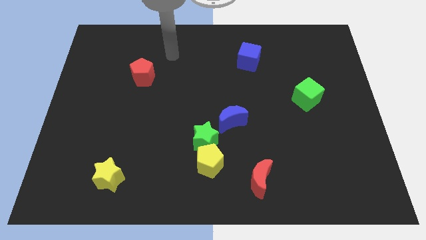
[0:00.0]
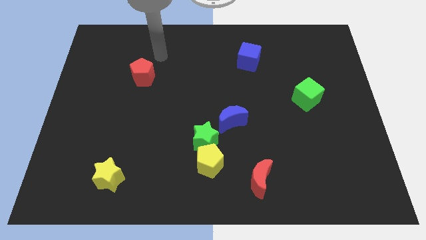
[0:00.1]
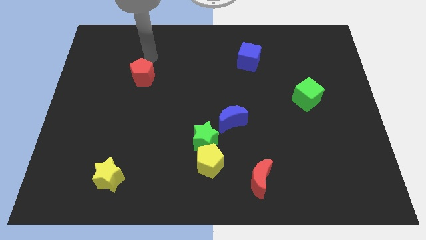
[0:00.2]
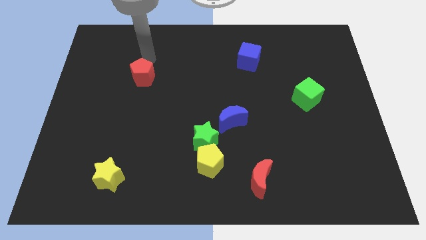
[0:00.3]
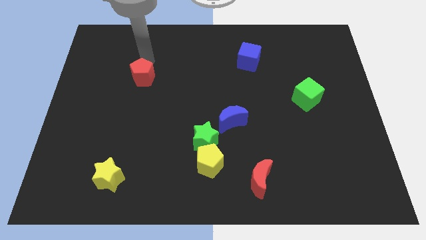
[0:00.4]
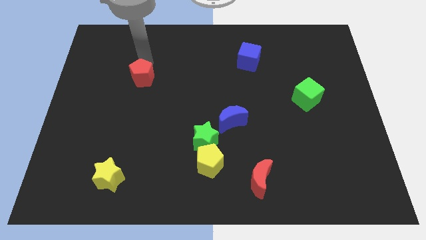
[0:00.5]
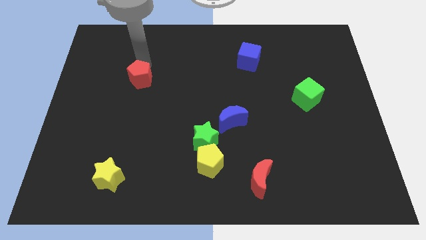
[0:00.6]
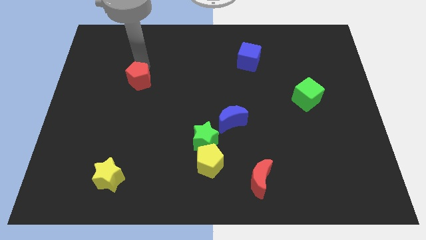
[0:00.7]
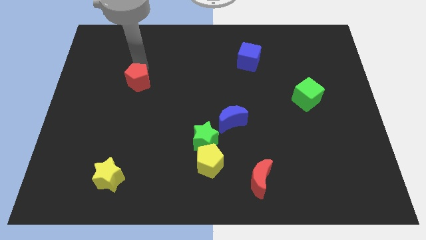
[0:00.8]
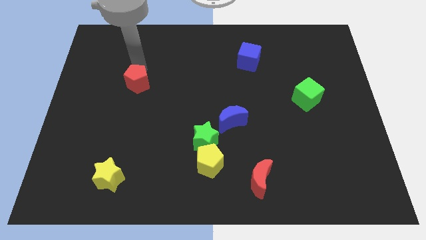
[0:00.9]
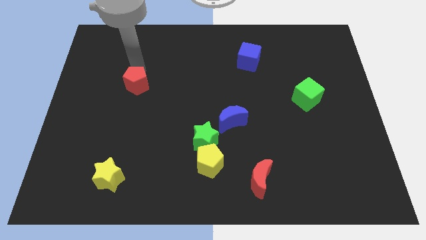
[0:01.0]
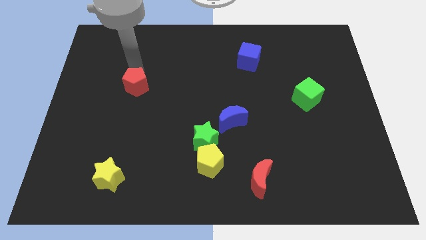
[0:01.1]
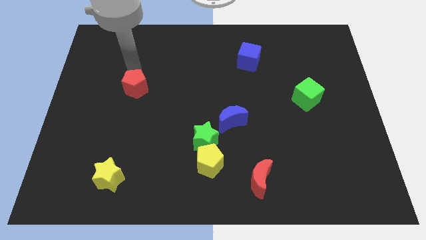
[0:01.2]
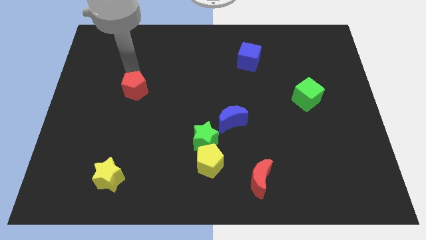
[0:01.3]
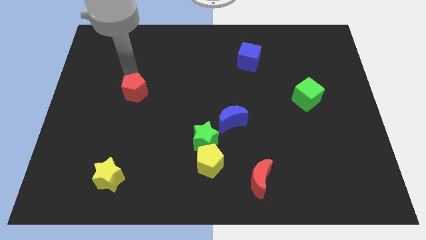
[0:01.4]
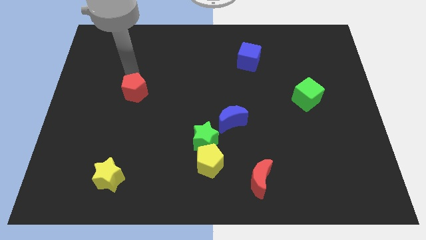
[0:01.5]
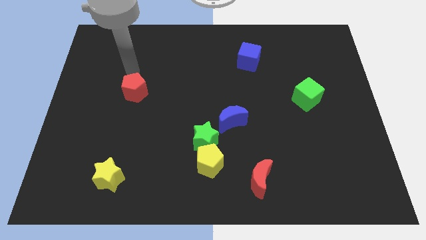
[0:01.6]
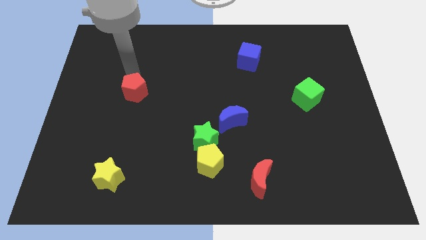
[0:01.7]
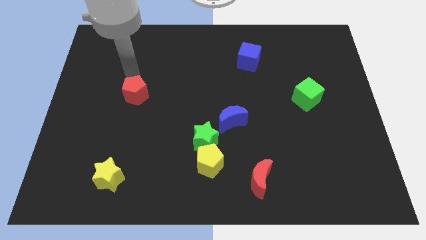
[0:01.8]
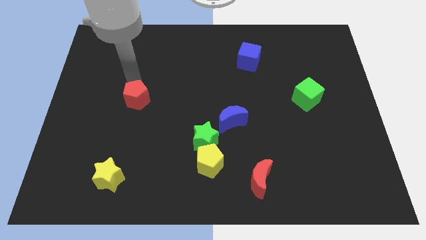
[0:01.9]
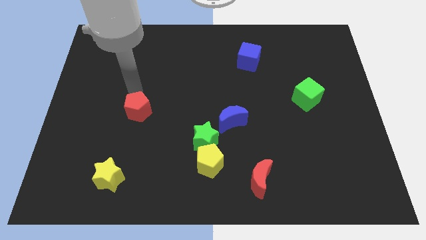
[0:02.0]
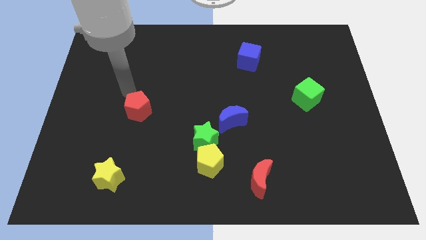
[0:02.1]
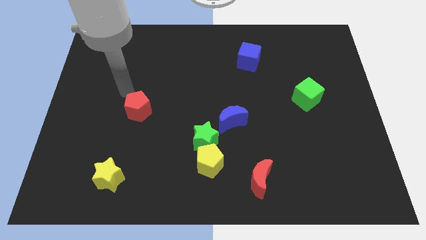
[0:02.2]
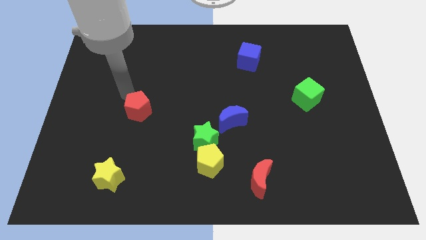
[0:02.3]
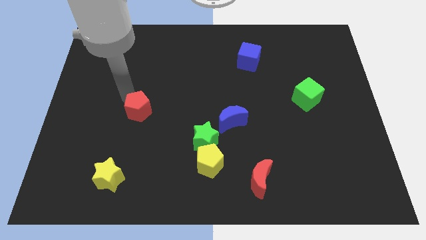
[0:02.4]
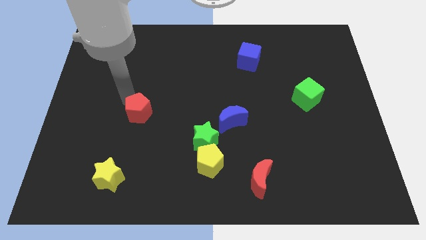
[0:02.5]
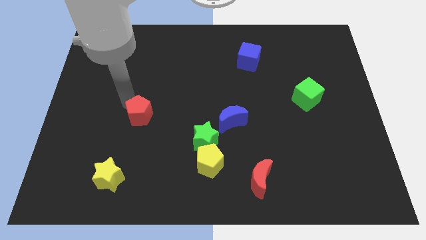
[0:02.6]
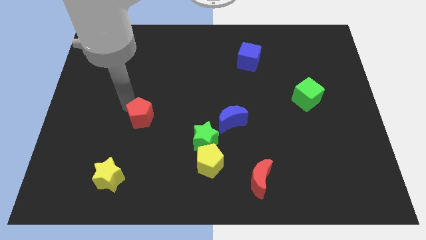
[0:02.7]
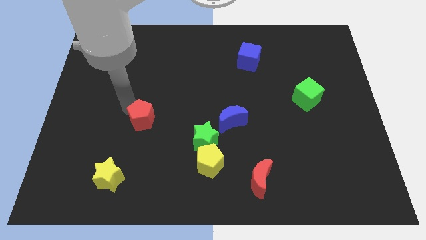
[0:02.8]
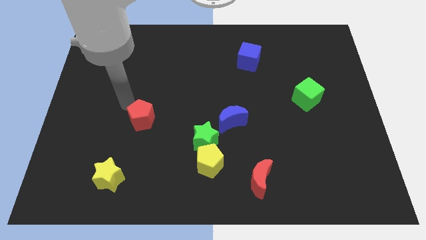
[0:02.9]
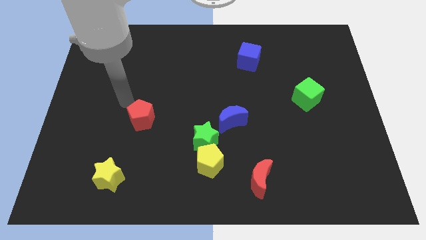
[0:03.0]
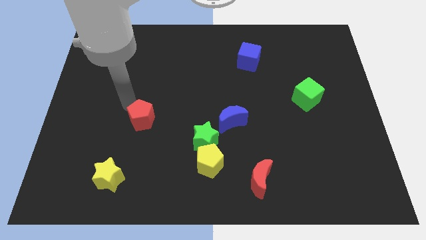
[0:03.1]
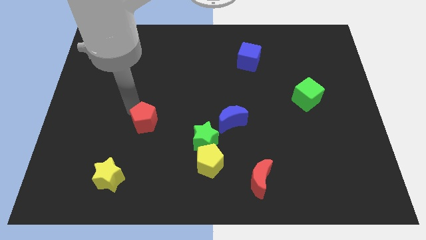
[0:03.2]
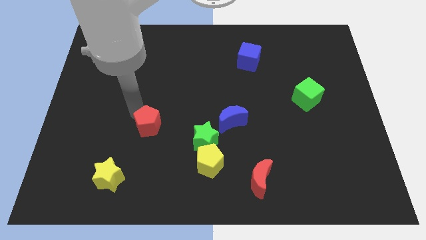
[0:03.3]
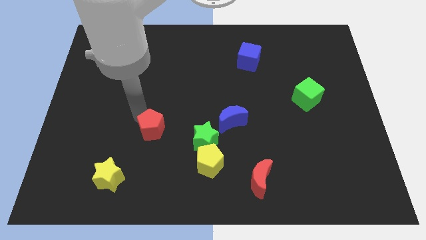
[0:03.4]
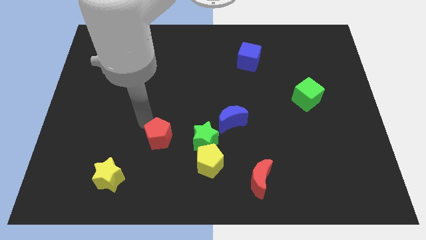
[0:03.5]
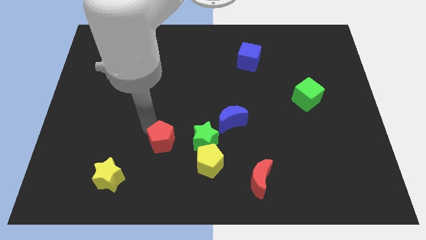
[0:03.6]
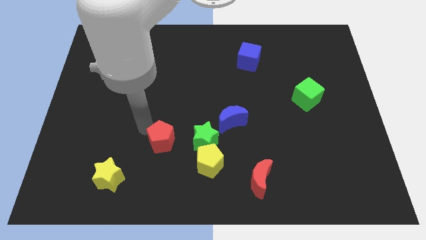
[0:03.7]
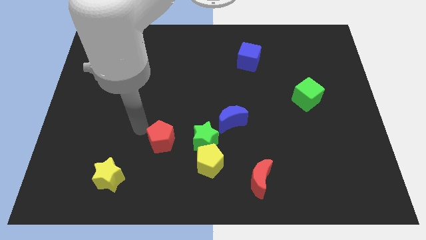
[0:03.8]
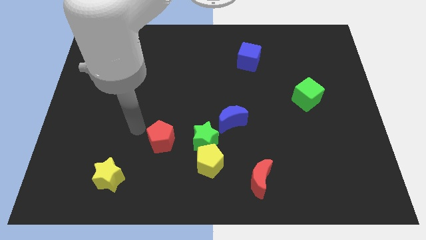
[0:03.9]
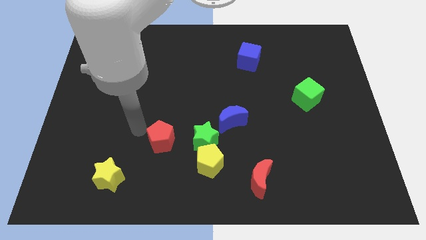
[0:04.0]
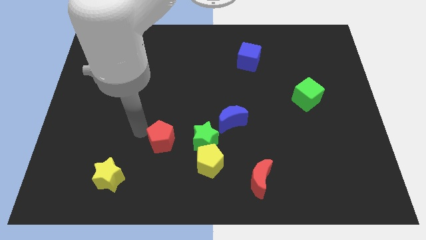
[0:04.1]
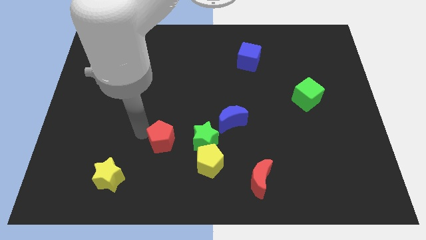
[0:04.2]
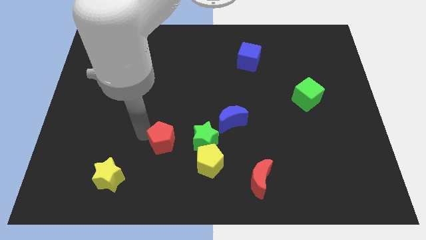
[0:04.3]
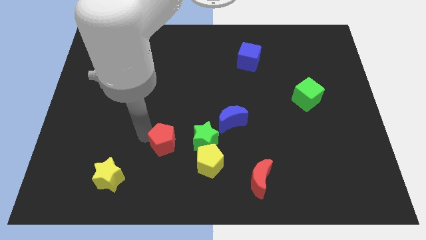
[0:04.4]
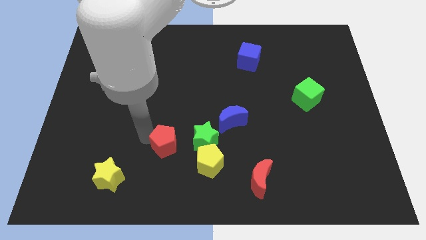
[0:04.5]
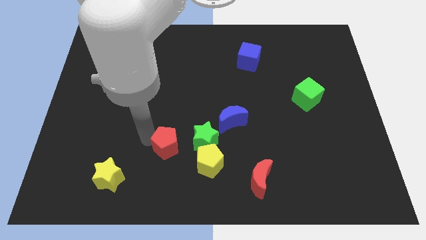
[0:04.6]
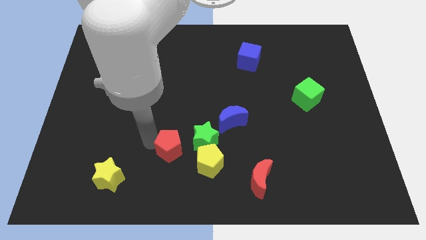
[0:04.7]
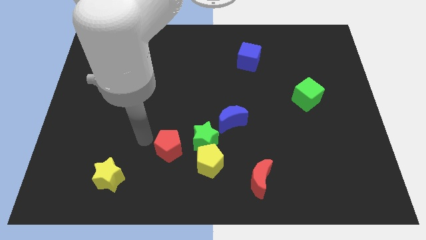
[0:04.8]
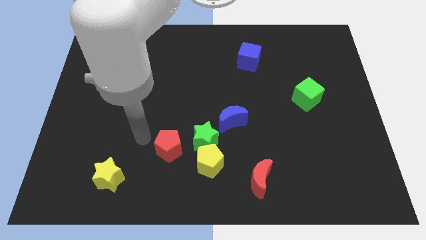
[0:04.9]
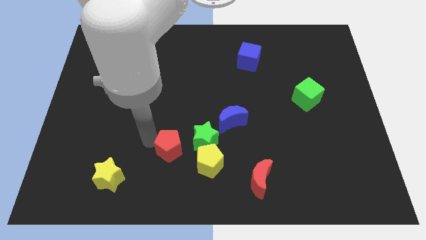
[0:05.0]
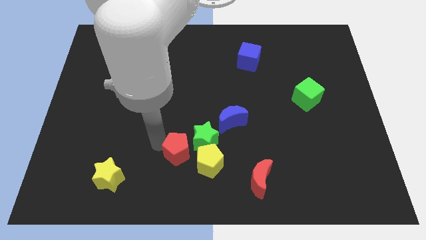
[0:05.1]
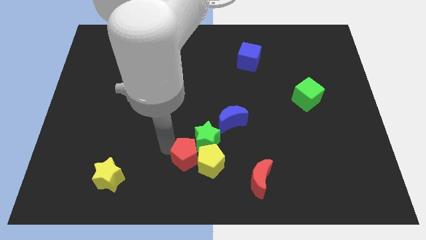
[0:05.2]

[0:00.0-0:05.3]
move the red pentagon next to the yellow pentagon
